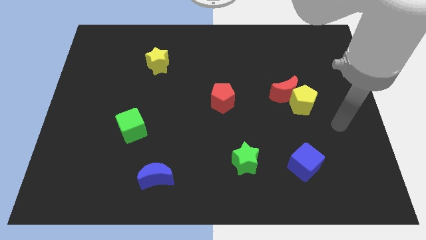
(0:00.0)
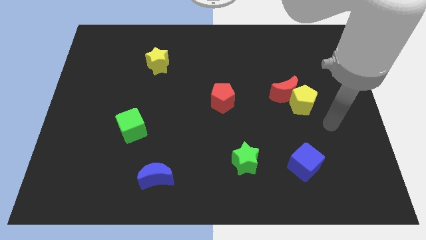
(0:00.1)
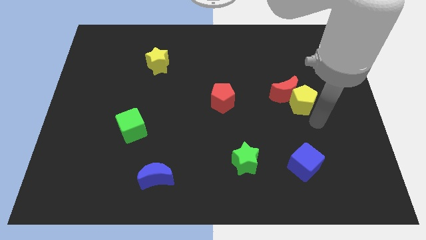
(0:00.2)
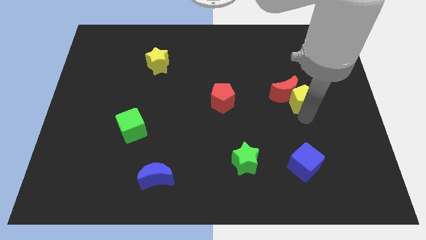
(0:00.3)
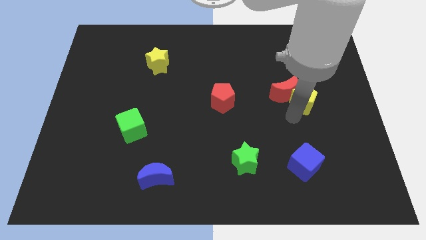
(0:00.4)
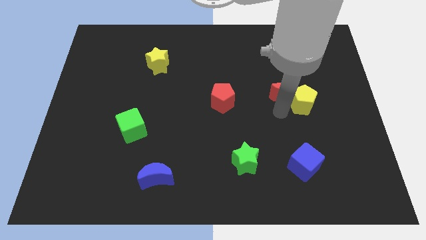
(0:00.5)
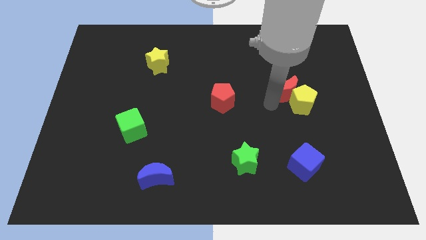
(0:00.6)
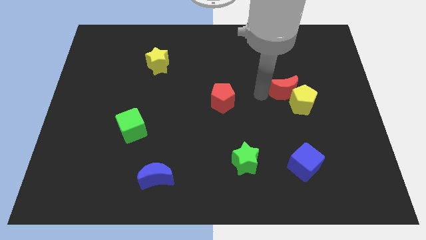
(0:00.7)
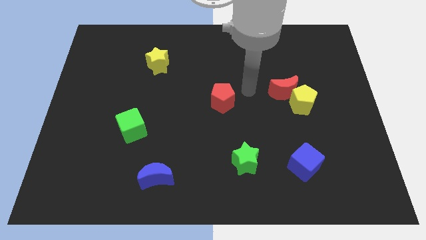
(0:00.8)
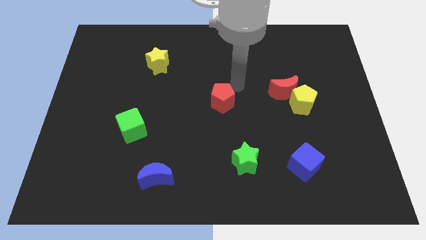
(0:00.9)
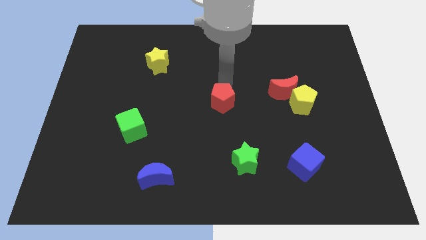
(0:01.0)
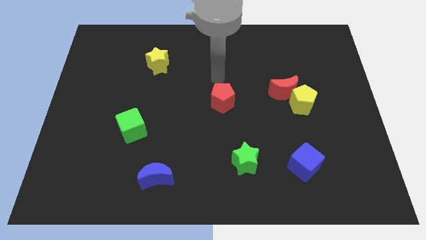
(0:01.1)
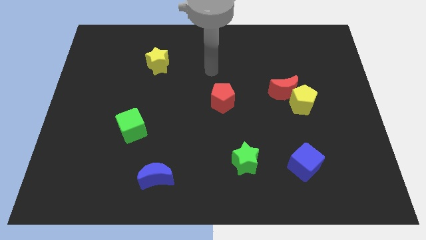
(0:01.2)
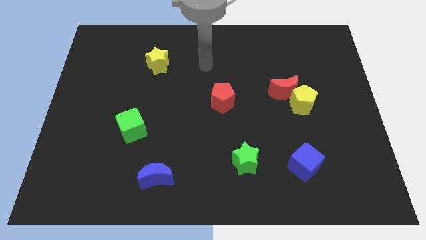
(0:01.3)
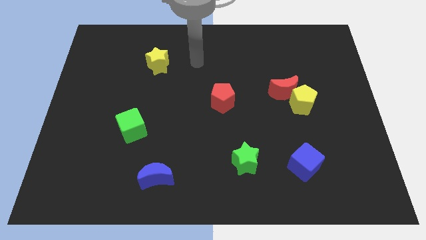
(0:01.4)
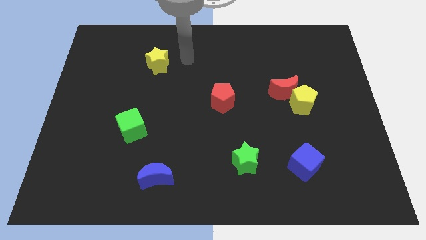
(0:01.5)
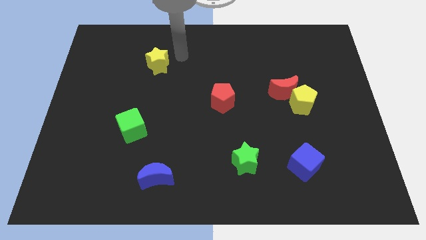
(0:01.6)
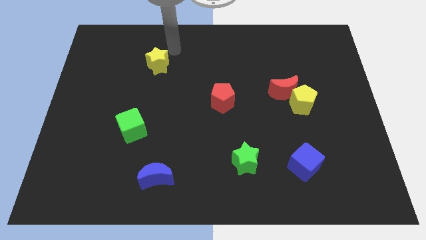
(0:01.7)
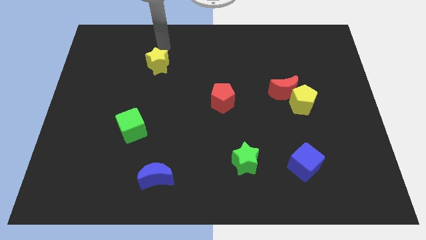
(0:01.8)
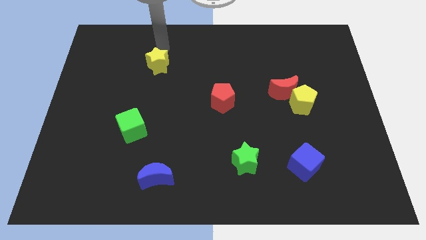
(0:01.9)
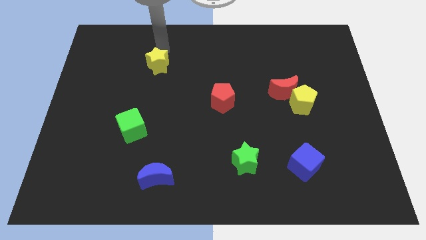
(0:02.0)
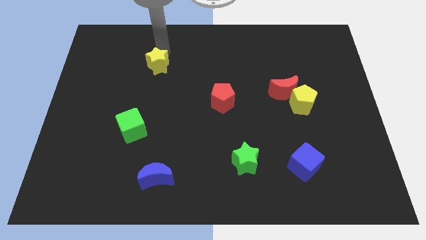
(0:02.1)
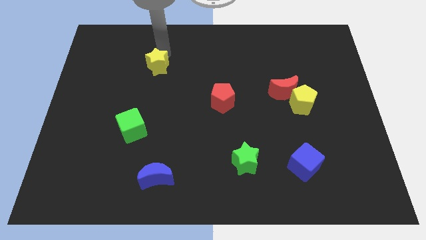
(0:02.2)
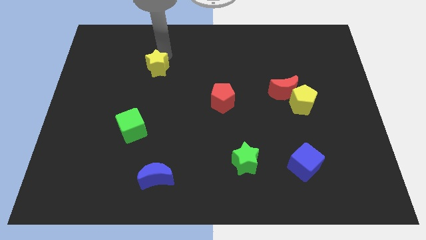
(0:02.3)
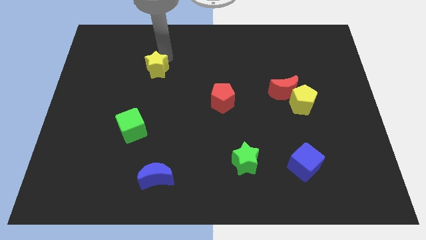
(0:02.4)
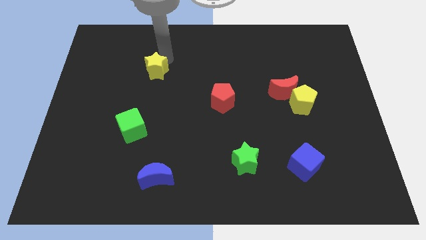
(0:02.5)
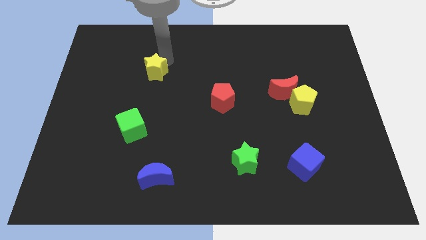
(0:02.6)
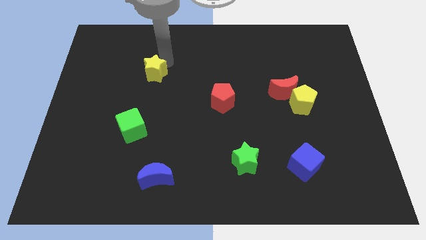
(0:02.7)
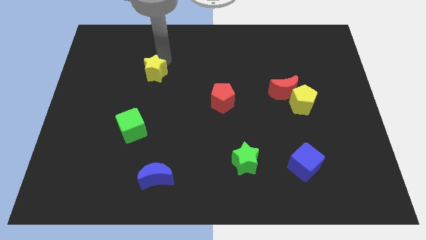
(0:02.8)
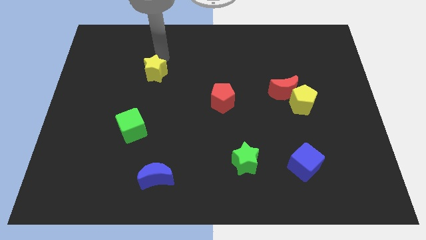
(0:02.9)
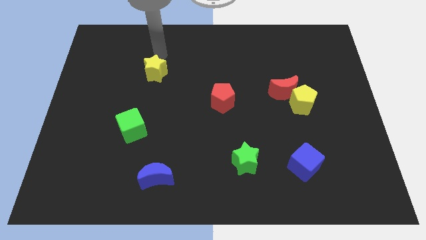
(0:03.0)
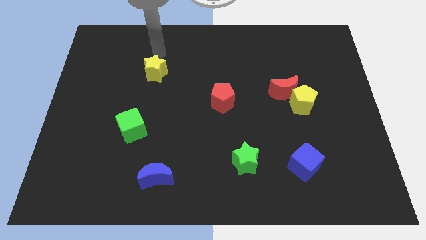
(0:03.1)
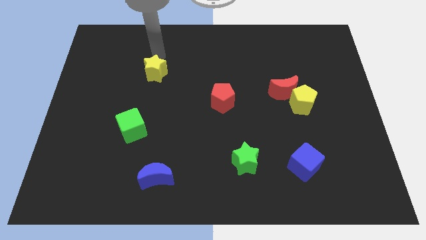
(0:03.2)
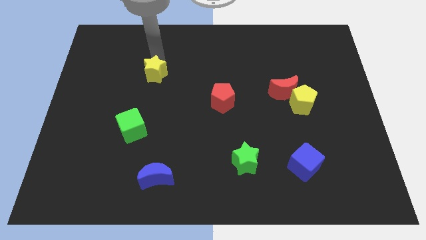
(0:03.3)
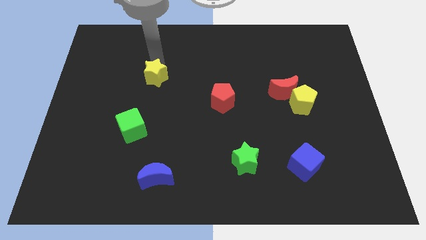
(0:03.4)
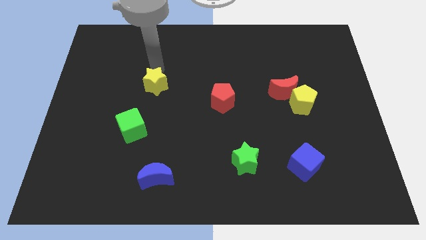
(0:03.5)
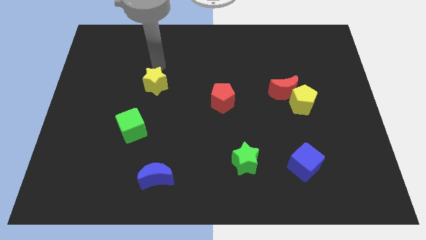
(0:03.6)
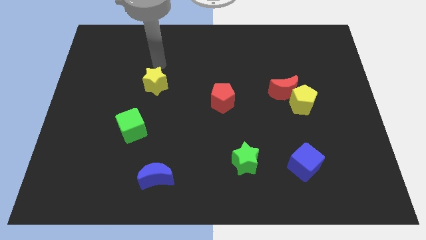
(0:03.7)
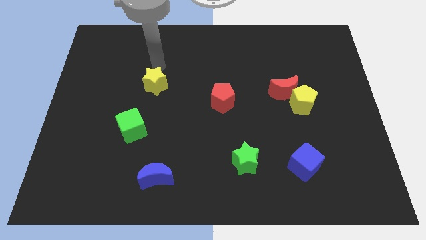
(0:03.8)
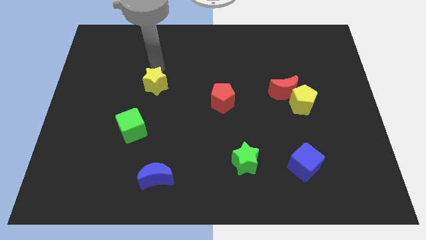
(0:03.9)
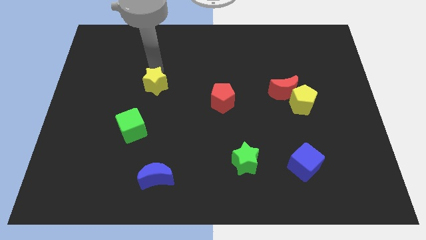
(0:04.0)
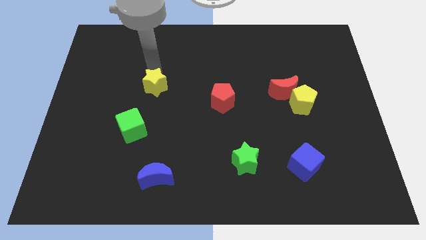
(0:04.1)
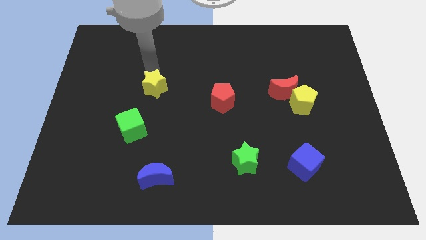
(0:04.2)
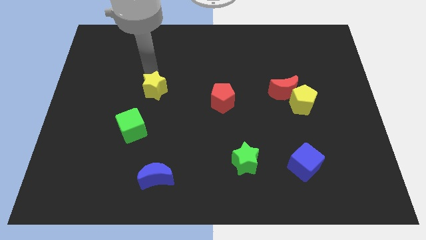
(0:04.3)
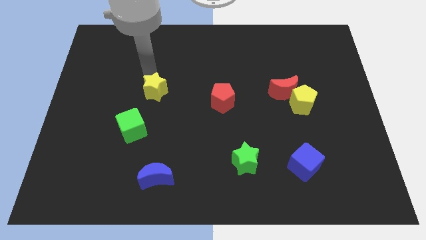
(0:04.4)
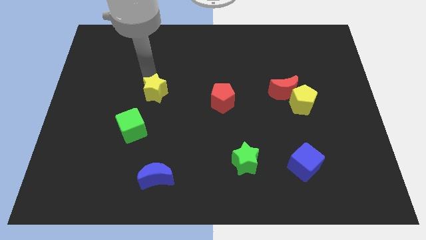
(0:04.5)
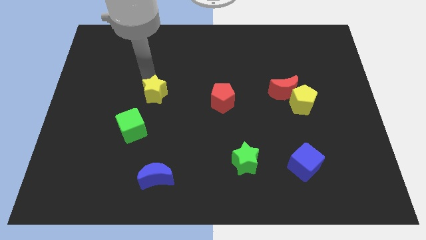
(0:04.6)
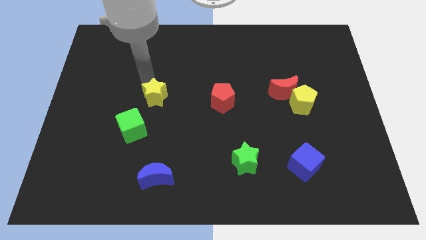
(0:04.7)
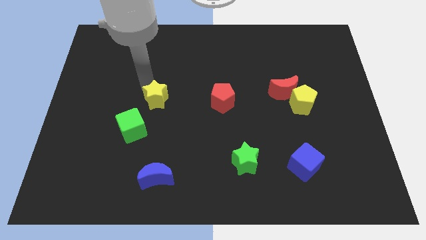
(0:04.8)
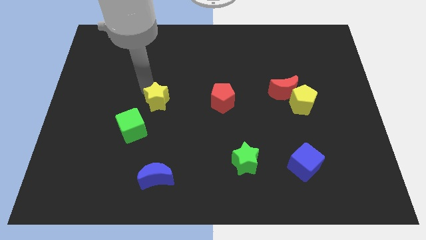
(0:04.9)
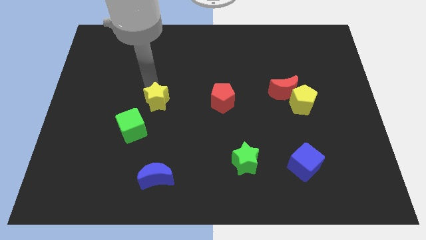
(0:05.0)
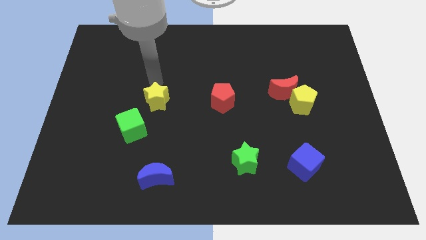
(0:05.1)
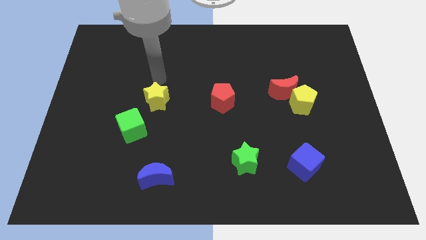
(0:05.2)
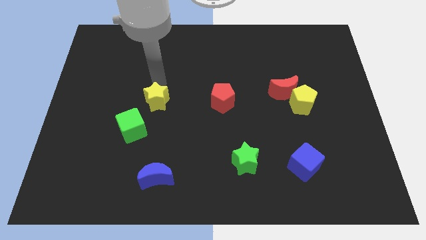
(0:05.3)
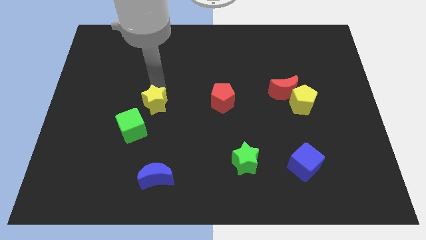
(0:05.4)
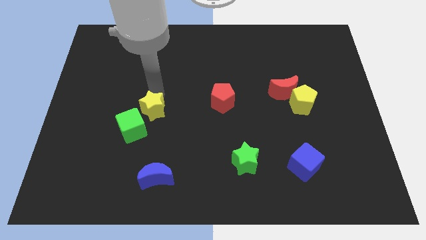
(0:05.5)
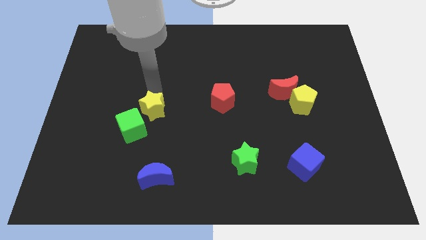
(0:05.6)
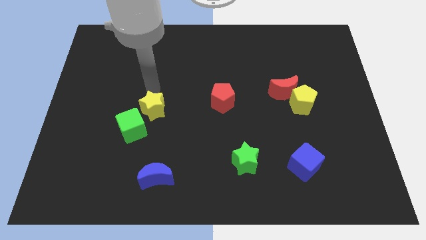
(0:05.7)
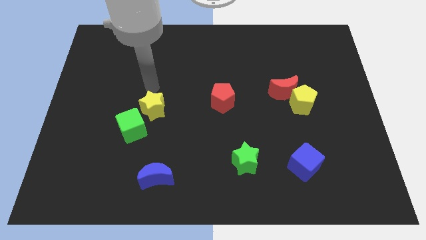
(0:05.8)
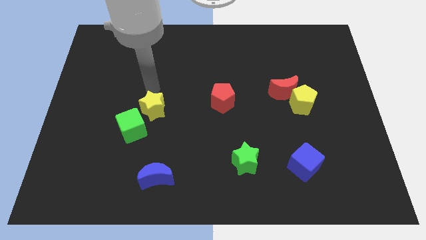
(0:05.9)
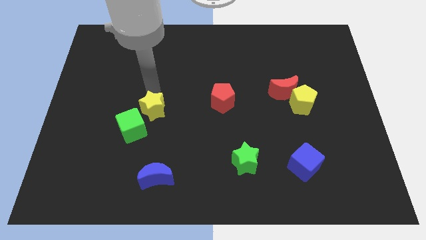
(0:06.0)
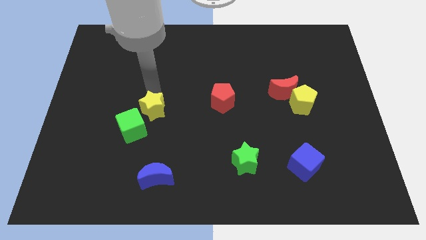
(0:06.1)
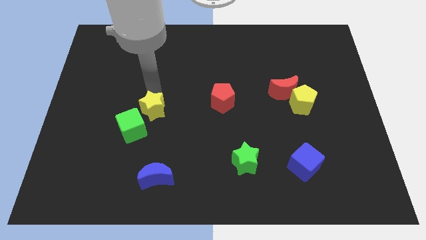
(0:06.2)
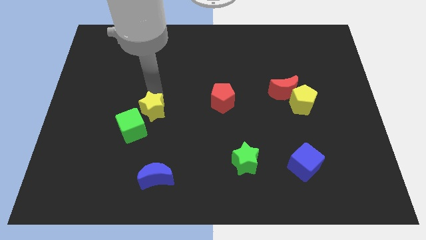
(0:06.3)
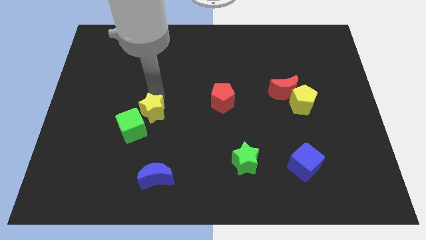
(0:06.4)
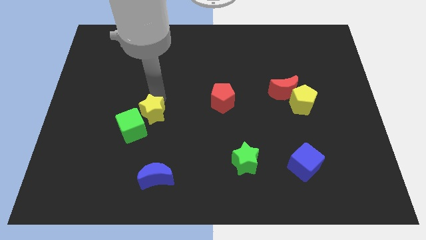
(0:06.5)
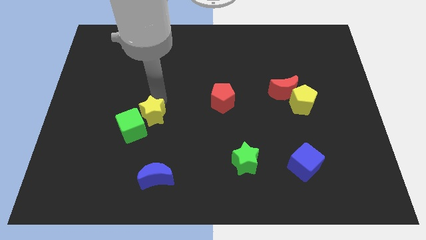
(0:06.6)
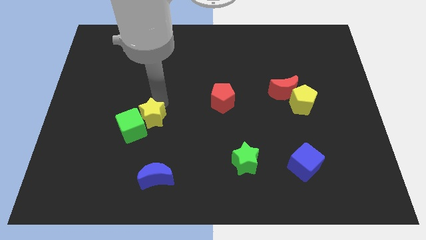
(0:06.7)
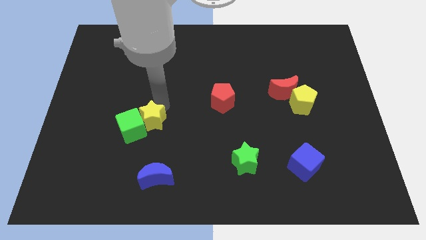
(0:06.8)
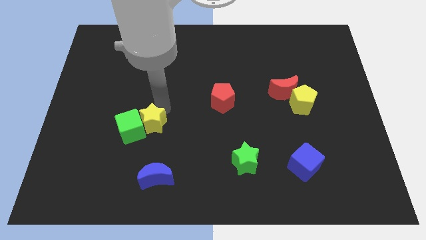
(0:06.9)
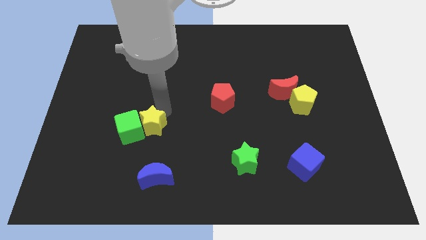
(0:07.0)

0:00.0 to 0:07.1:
put the yellow star to the bottom right side of the green cube

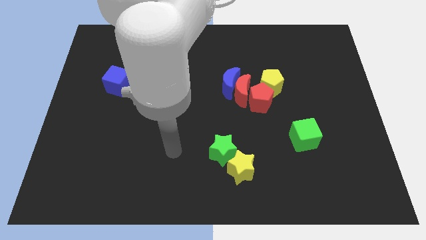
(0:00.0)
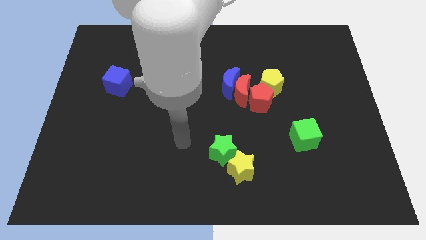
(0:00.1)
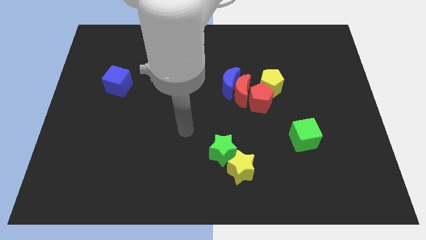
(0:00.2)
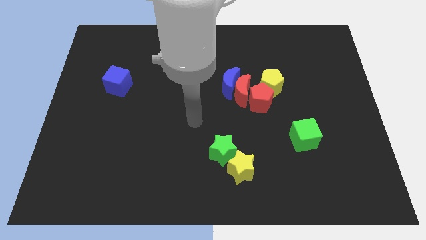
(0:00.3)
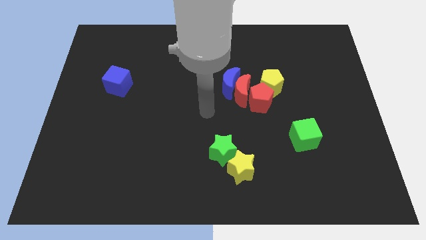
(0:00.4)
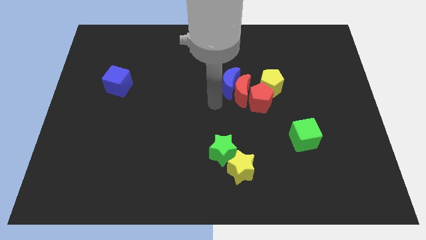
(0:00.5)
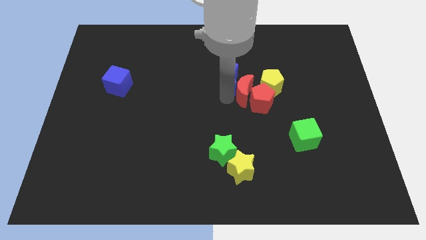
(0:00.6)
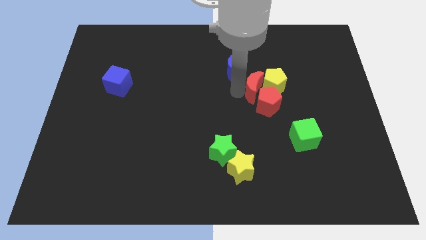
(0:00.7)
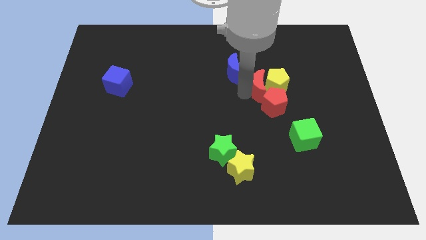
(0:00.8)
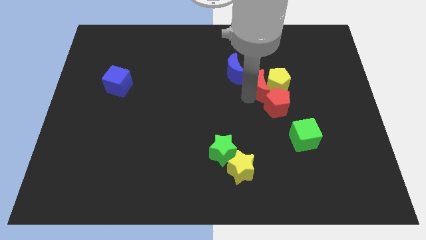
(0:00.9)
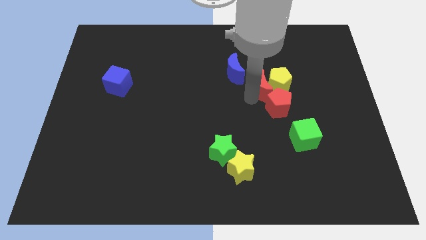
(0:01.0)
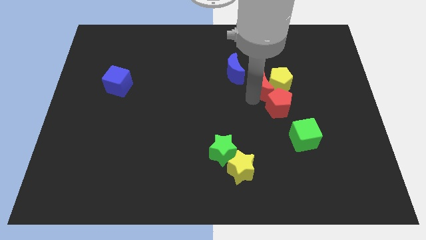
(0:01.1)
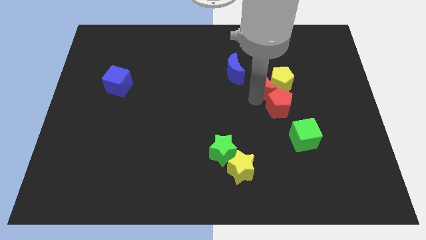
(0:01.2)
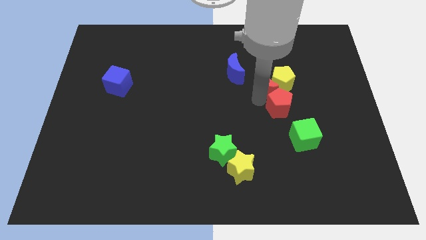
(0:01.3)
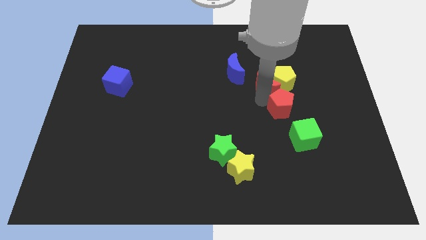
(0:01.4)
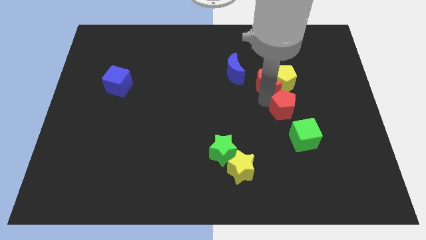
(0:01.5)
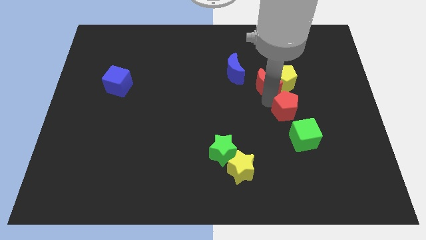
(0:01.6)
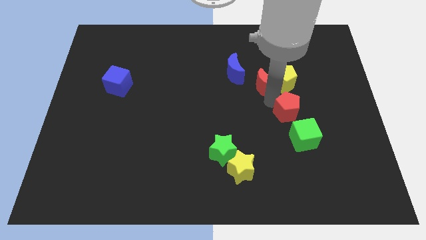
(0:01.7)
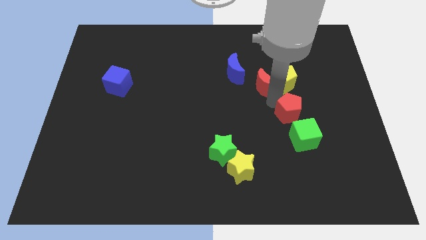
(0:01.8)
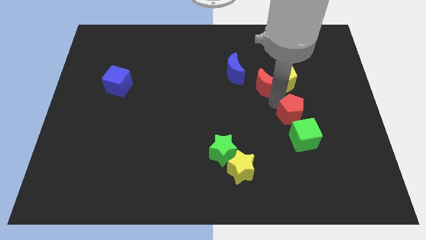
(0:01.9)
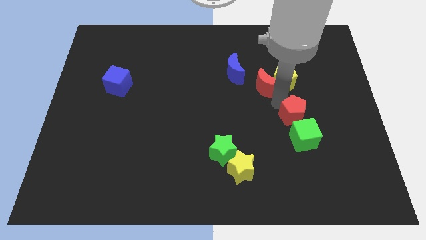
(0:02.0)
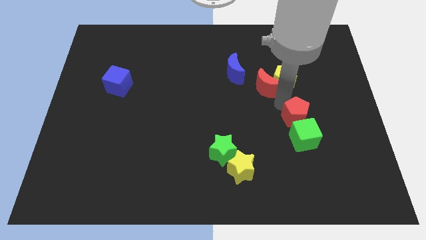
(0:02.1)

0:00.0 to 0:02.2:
slide the red pentagon diagonally up and to the right of the green cube
